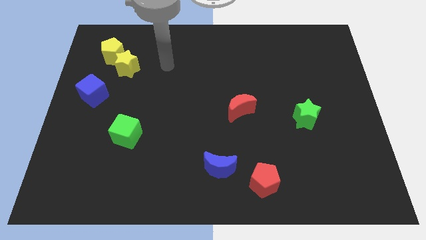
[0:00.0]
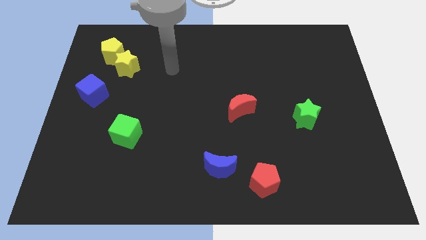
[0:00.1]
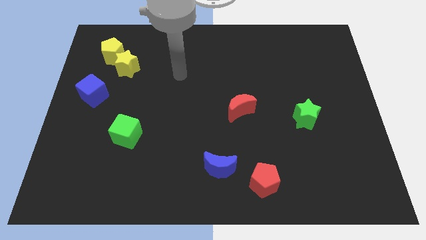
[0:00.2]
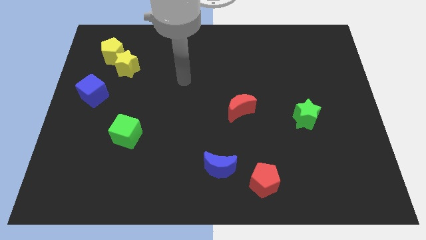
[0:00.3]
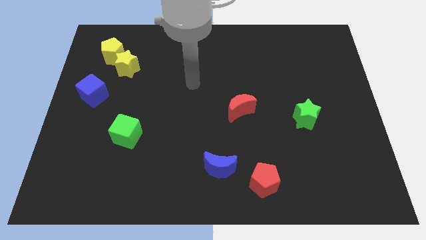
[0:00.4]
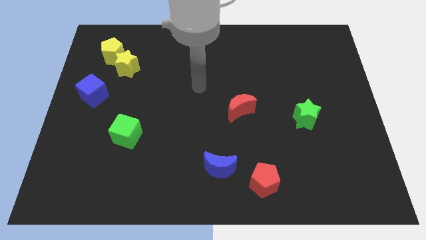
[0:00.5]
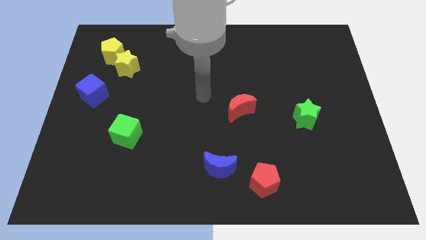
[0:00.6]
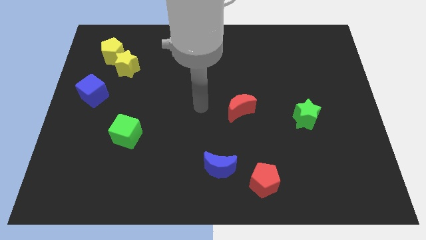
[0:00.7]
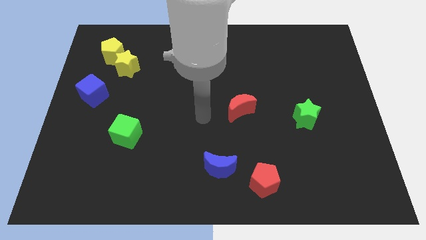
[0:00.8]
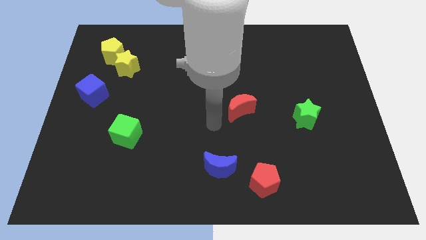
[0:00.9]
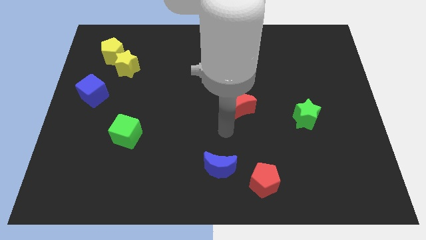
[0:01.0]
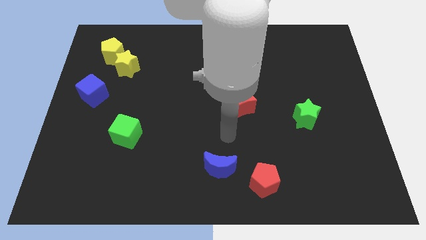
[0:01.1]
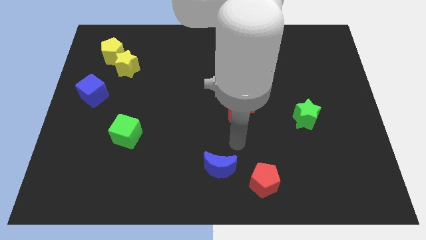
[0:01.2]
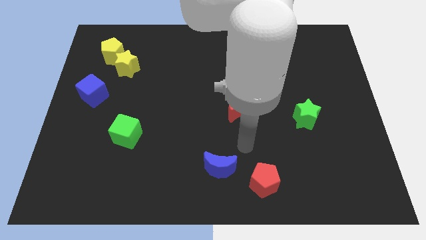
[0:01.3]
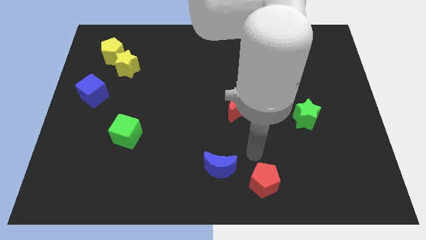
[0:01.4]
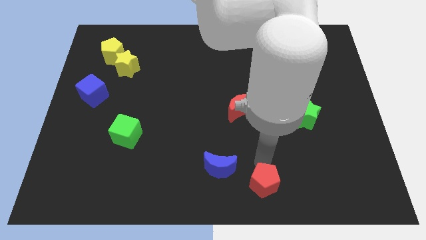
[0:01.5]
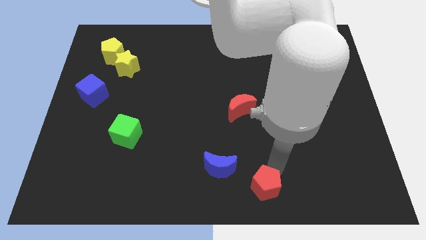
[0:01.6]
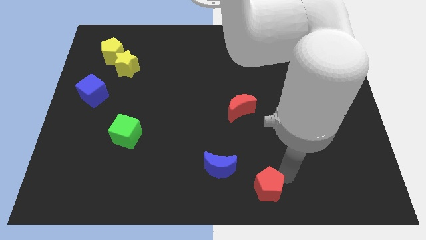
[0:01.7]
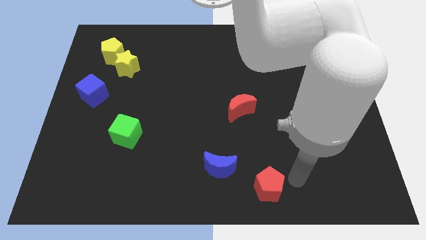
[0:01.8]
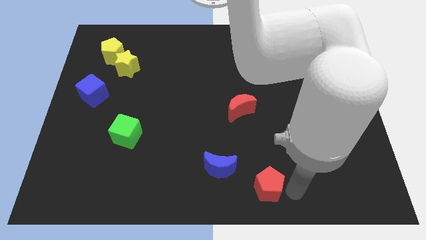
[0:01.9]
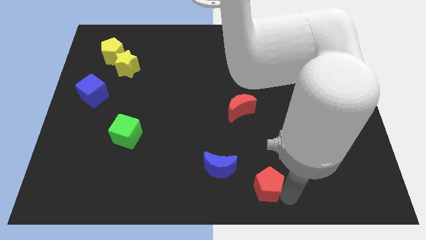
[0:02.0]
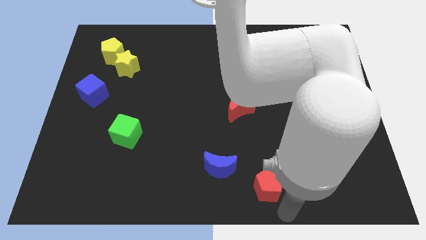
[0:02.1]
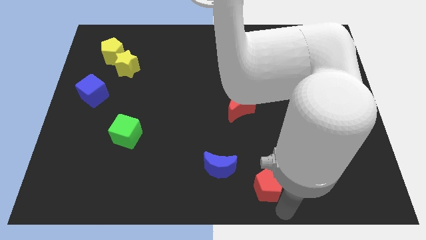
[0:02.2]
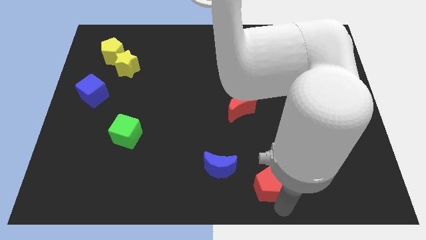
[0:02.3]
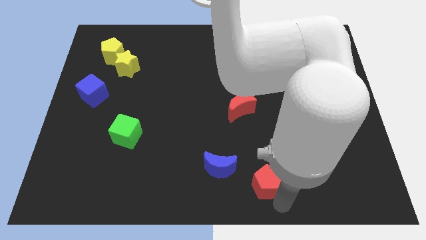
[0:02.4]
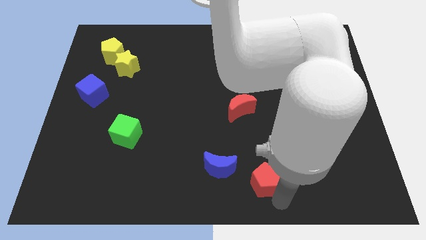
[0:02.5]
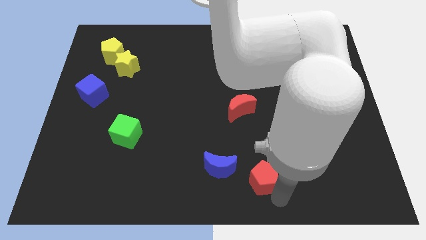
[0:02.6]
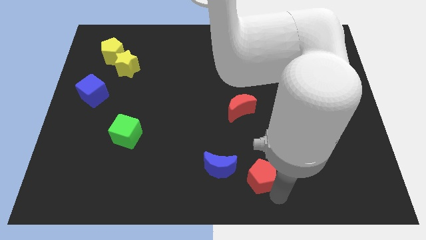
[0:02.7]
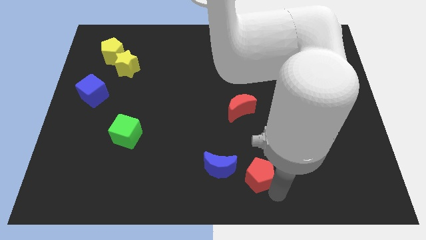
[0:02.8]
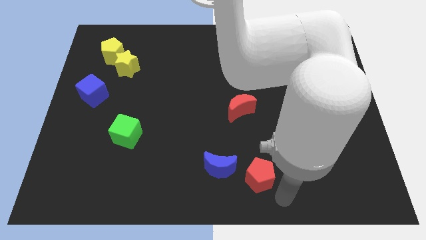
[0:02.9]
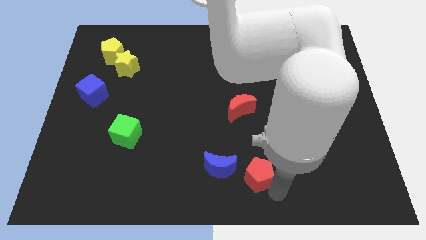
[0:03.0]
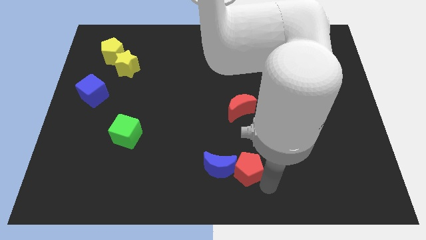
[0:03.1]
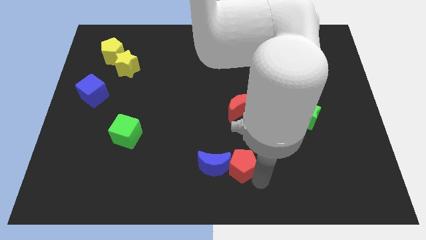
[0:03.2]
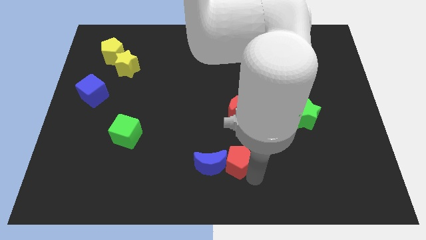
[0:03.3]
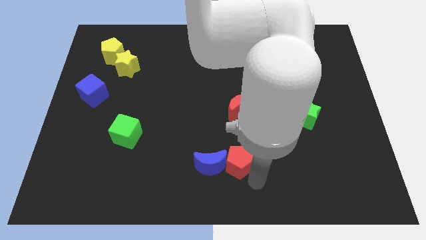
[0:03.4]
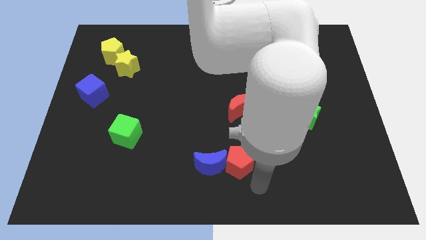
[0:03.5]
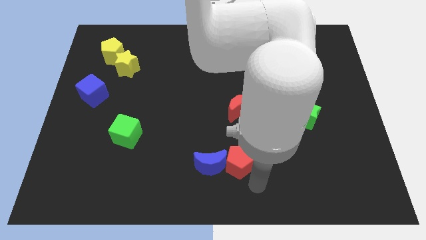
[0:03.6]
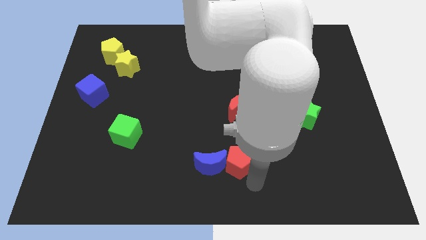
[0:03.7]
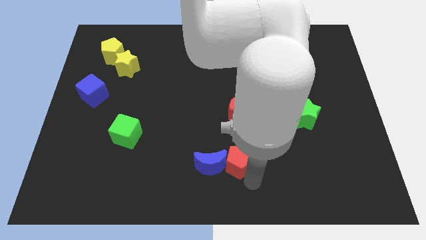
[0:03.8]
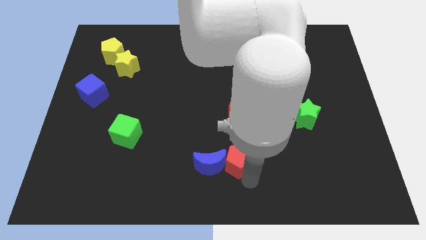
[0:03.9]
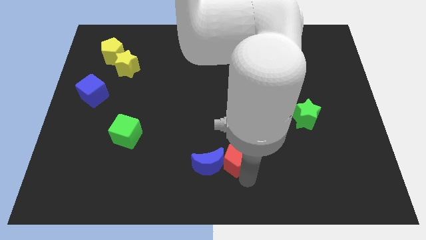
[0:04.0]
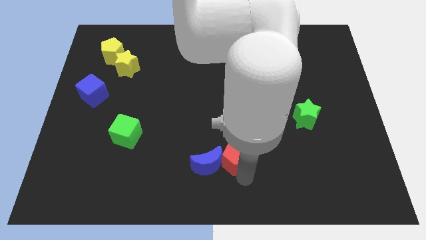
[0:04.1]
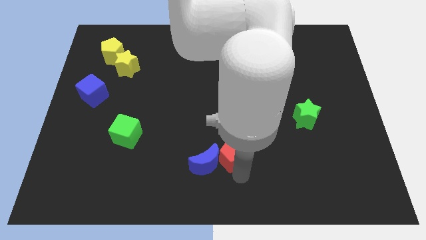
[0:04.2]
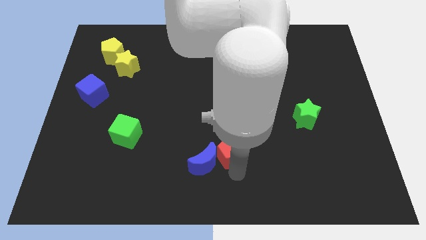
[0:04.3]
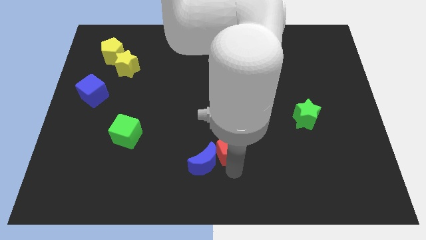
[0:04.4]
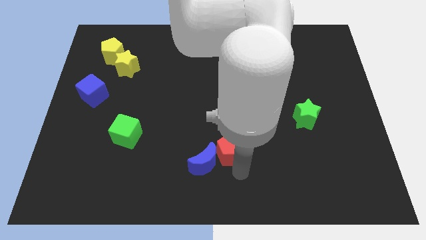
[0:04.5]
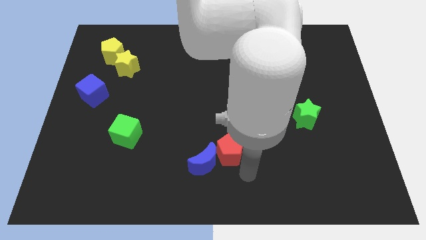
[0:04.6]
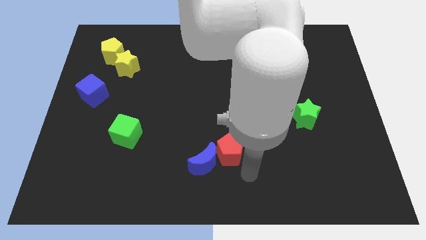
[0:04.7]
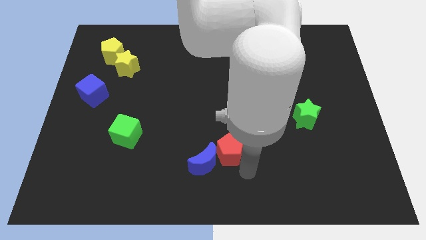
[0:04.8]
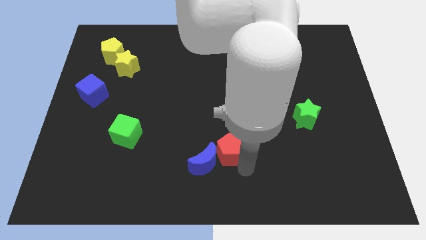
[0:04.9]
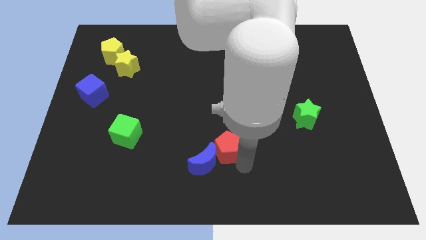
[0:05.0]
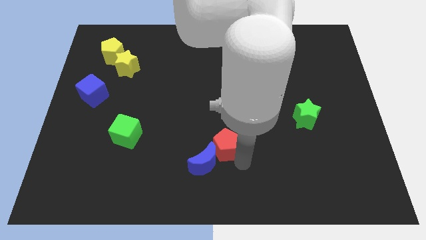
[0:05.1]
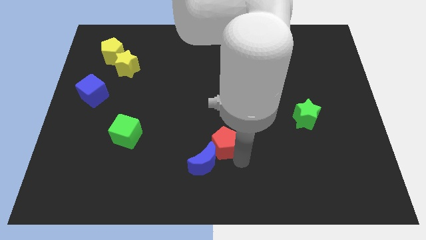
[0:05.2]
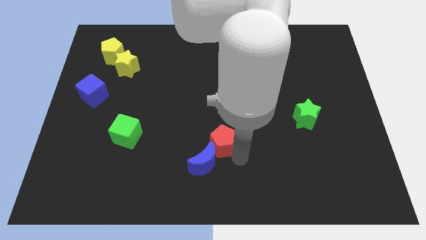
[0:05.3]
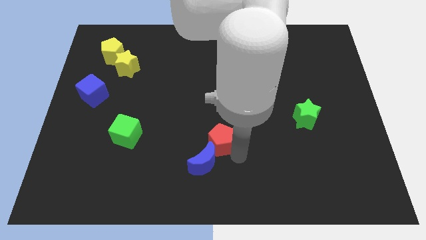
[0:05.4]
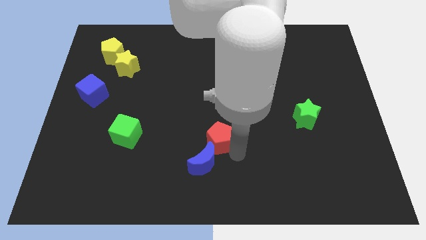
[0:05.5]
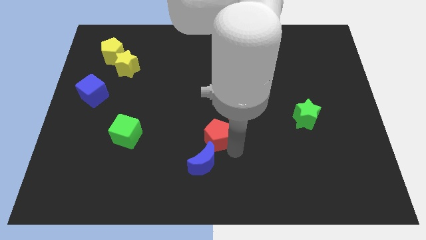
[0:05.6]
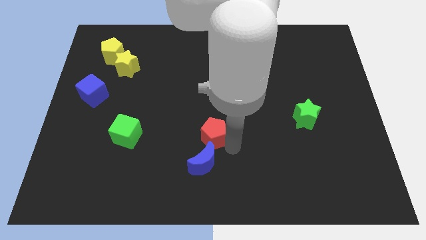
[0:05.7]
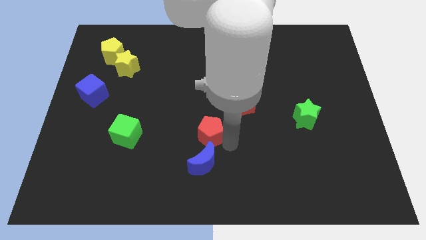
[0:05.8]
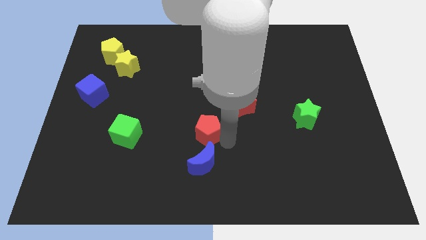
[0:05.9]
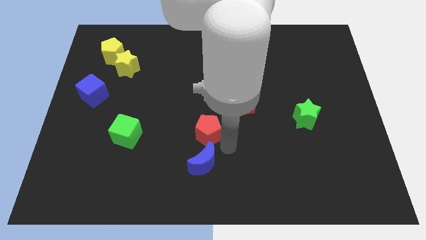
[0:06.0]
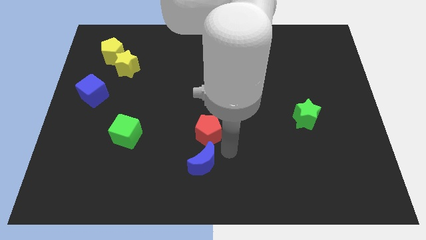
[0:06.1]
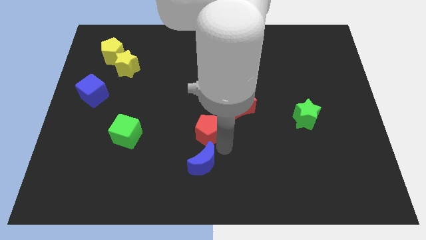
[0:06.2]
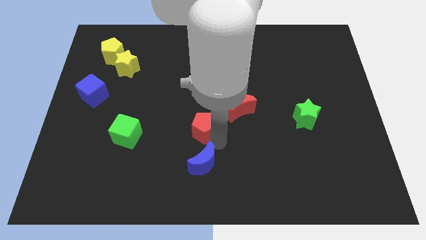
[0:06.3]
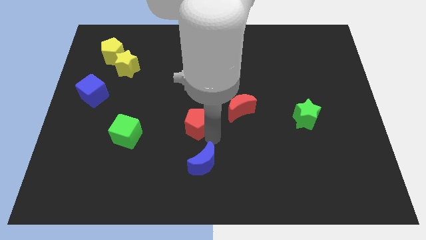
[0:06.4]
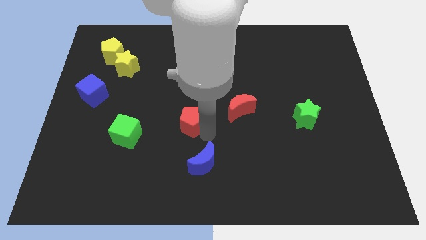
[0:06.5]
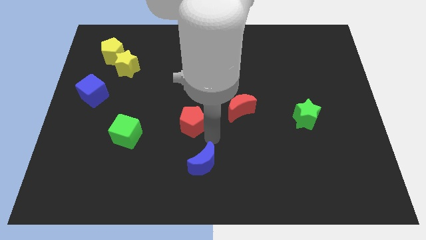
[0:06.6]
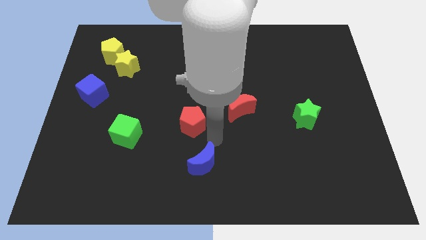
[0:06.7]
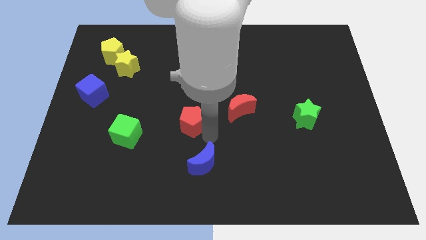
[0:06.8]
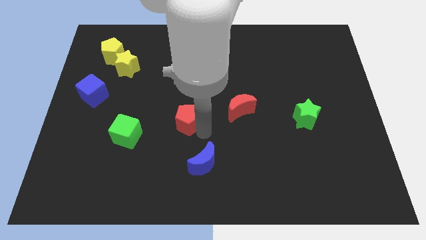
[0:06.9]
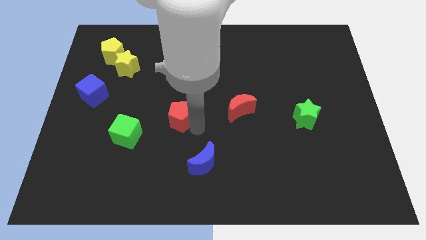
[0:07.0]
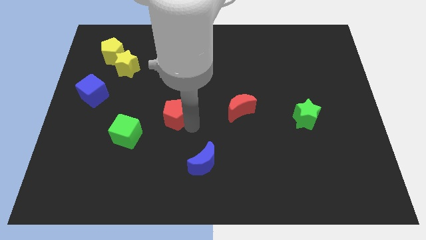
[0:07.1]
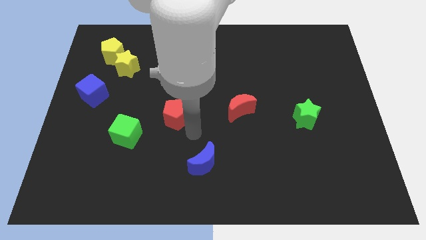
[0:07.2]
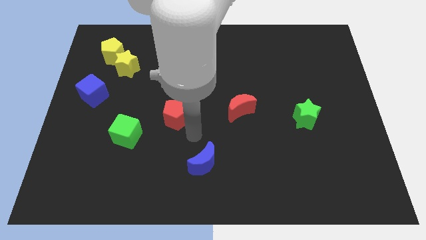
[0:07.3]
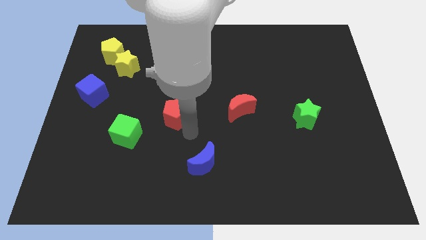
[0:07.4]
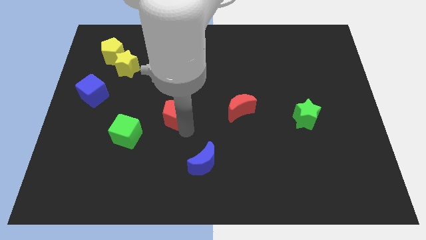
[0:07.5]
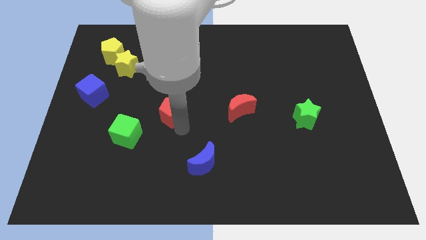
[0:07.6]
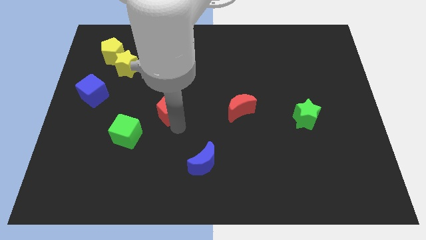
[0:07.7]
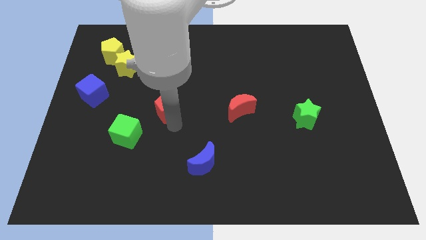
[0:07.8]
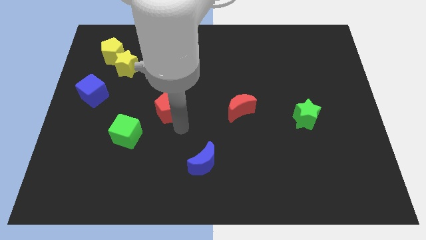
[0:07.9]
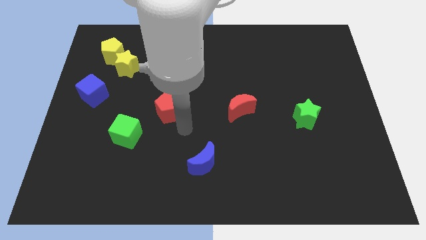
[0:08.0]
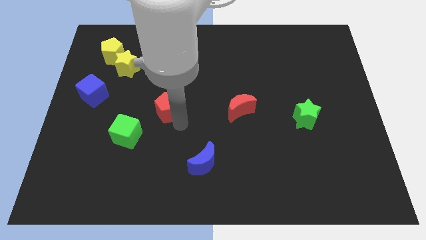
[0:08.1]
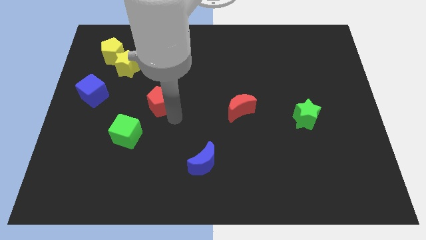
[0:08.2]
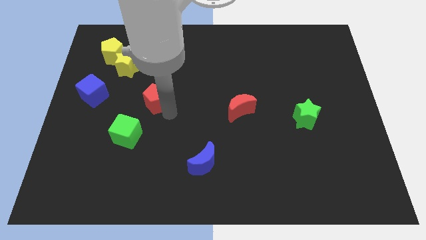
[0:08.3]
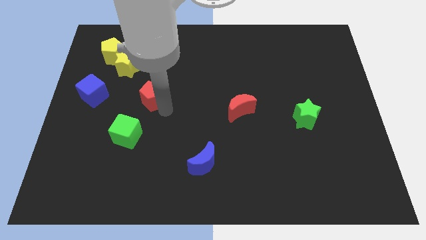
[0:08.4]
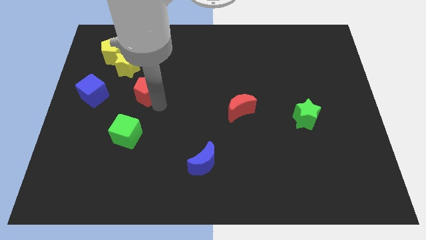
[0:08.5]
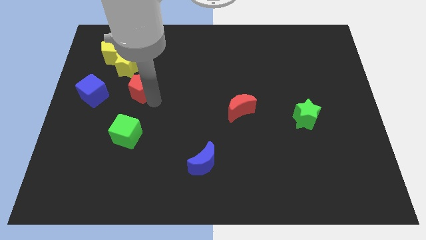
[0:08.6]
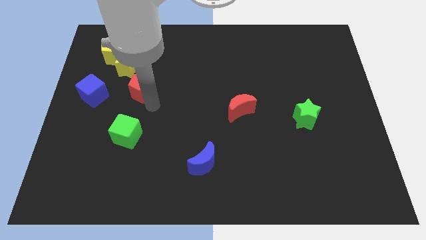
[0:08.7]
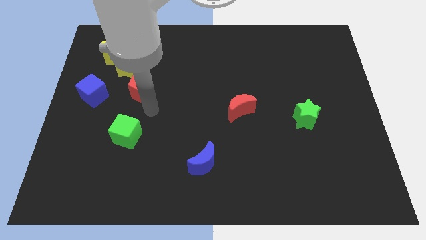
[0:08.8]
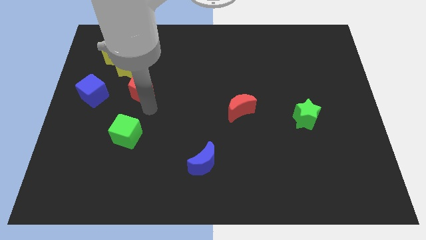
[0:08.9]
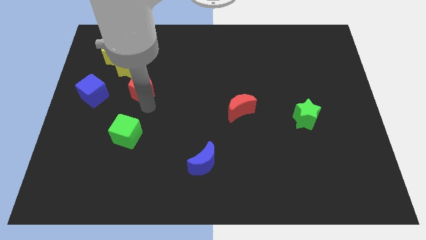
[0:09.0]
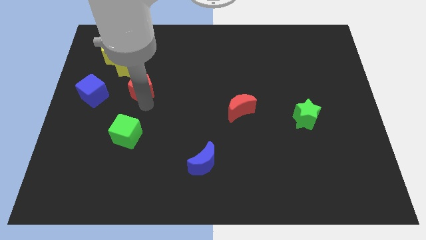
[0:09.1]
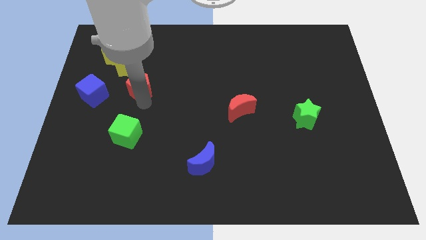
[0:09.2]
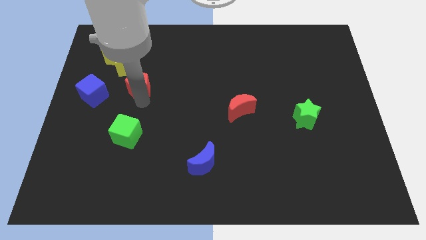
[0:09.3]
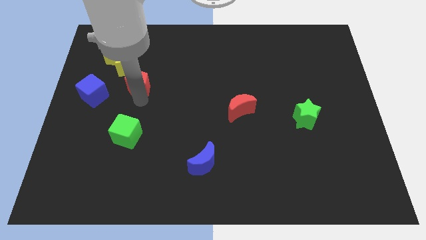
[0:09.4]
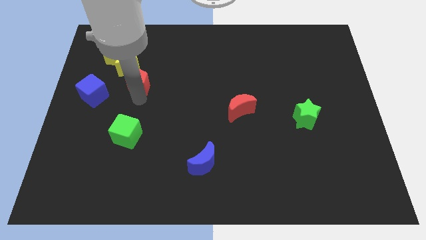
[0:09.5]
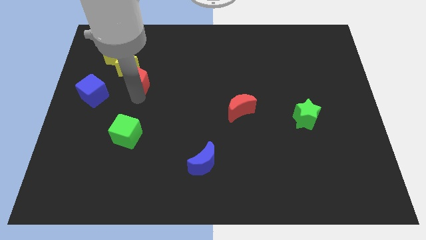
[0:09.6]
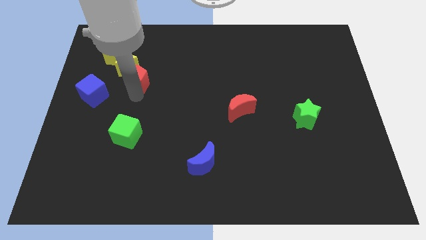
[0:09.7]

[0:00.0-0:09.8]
put the red pentagon to the yellow star
